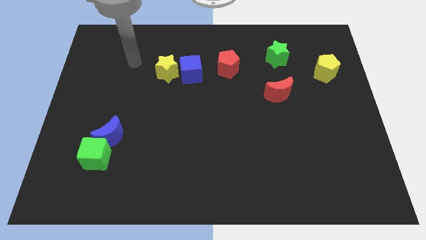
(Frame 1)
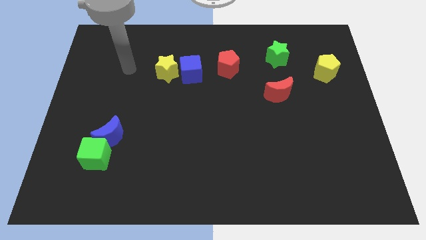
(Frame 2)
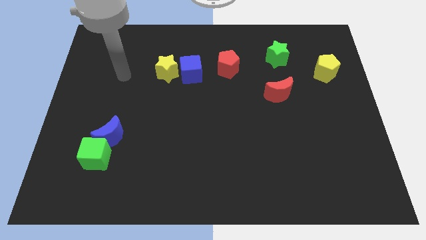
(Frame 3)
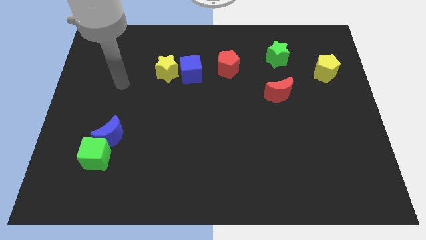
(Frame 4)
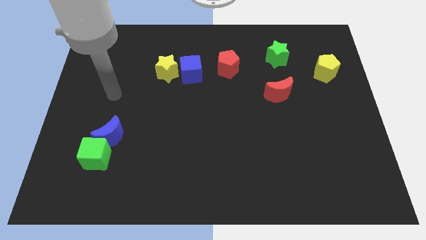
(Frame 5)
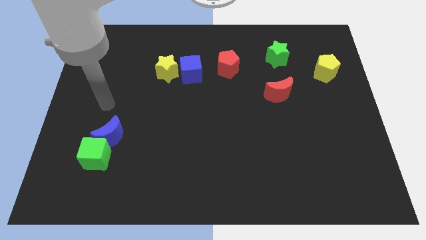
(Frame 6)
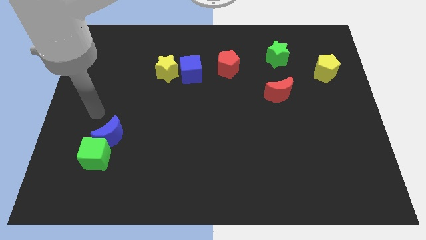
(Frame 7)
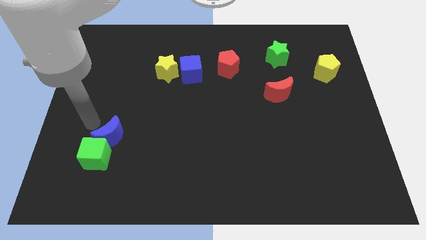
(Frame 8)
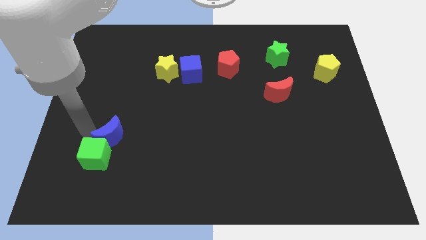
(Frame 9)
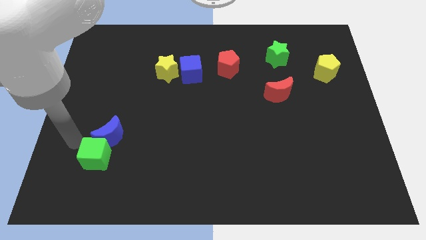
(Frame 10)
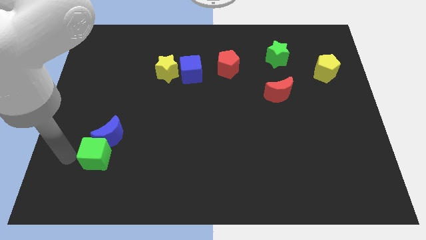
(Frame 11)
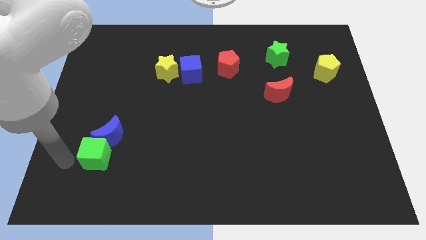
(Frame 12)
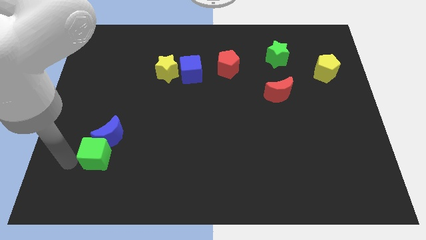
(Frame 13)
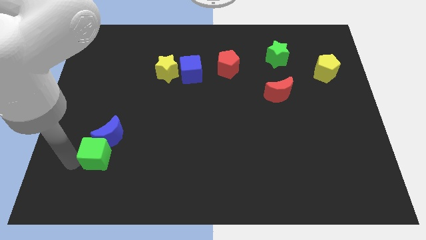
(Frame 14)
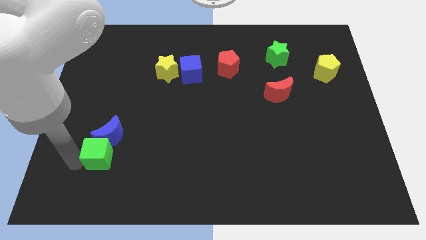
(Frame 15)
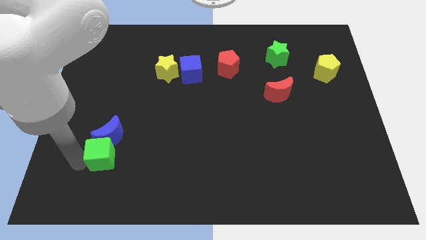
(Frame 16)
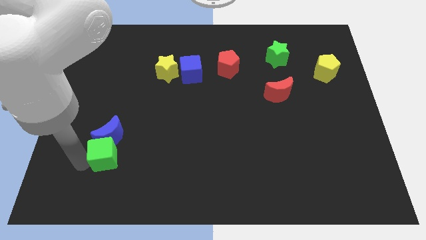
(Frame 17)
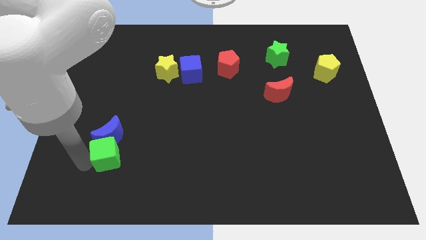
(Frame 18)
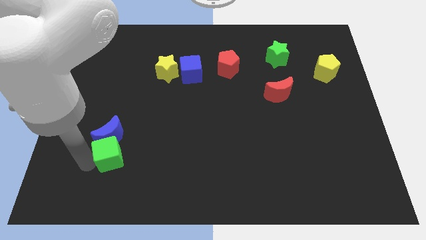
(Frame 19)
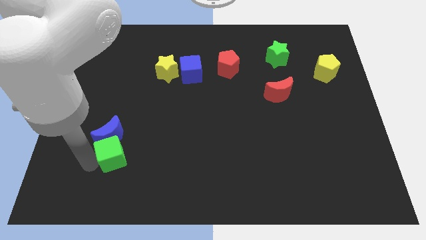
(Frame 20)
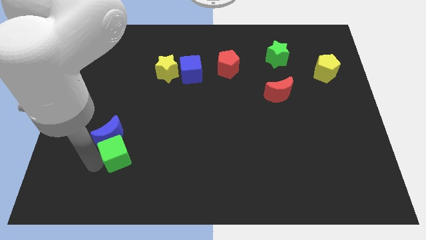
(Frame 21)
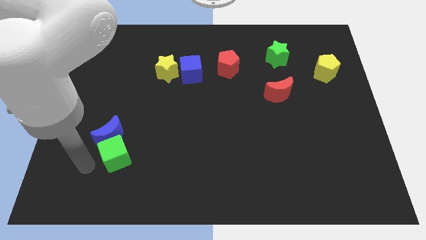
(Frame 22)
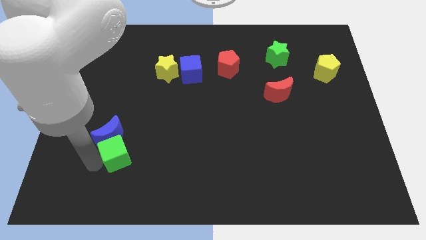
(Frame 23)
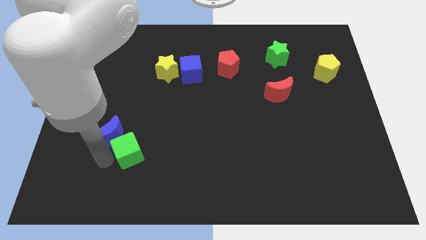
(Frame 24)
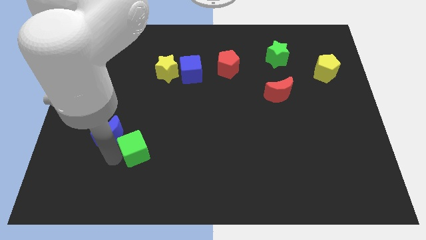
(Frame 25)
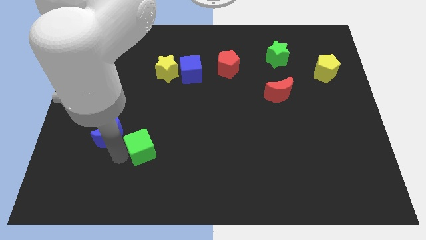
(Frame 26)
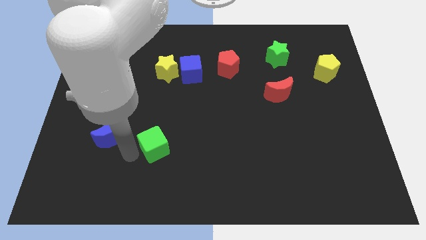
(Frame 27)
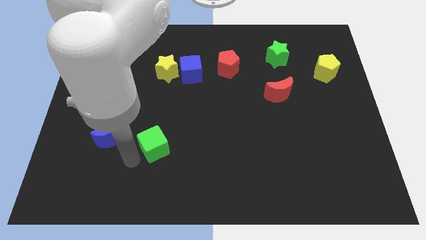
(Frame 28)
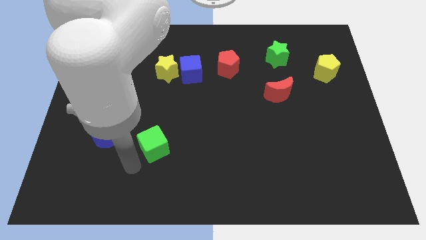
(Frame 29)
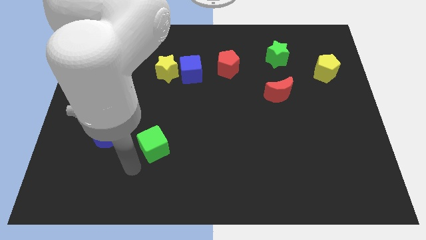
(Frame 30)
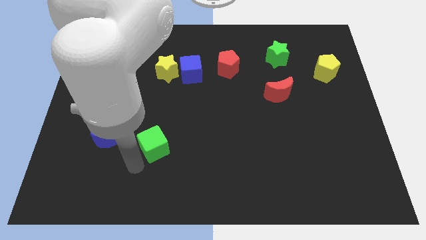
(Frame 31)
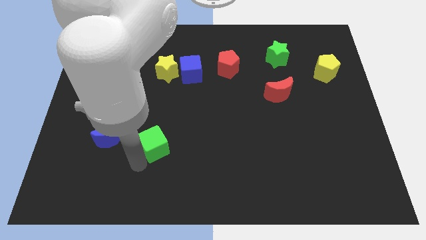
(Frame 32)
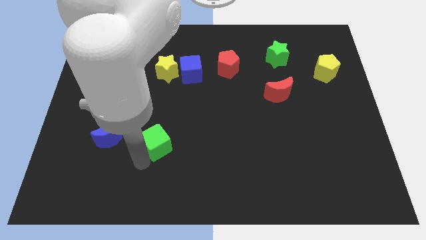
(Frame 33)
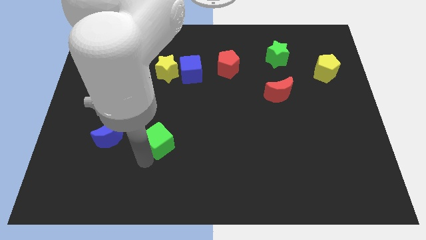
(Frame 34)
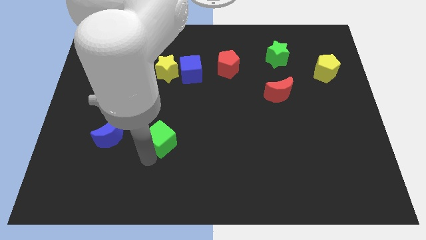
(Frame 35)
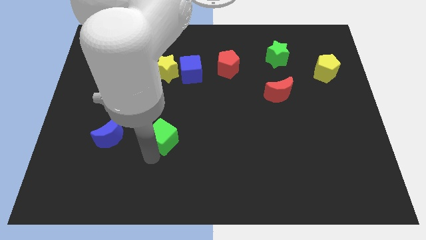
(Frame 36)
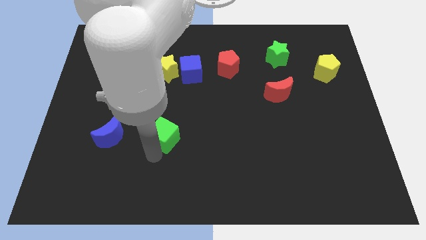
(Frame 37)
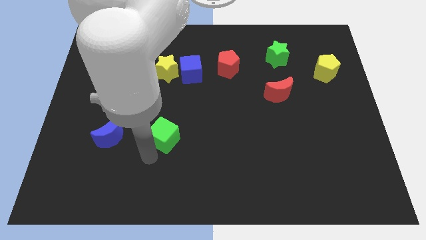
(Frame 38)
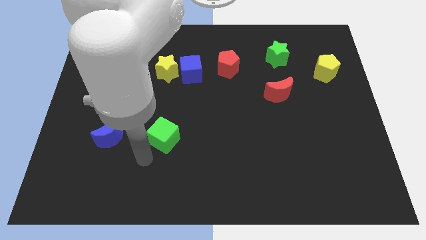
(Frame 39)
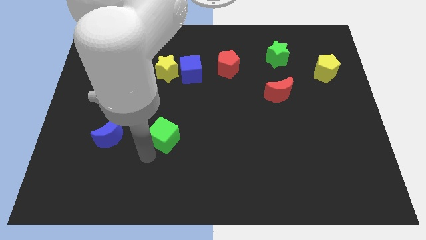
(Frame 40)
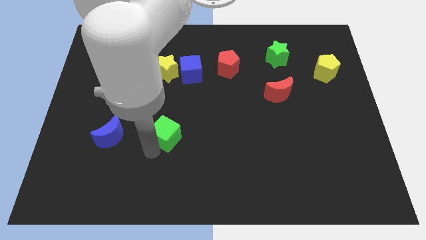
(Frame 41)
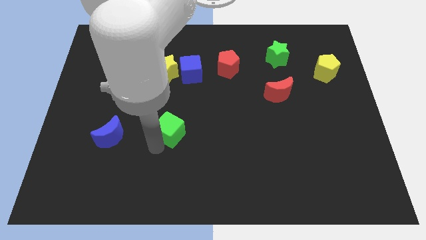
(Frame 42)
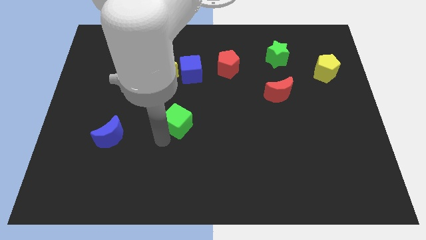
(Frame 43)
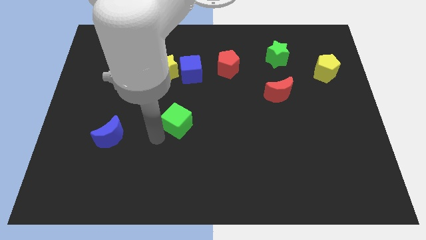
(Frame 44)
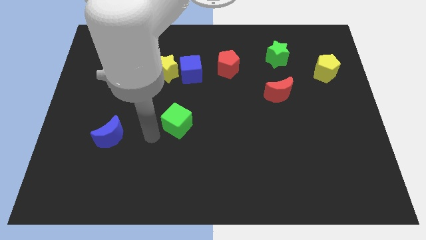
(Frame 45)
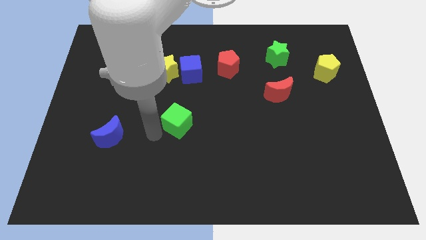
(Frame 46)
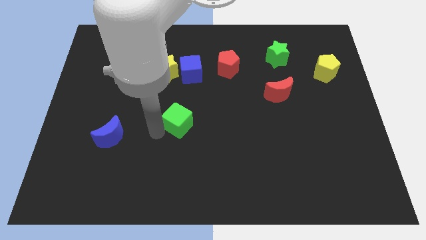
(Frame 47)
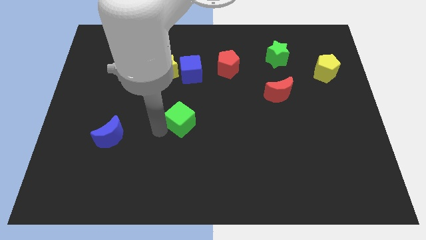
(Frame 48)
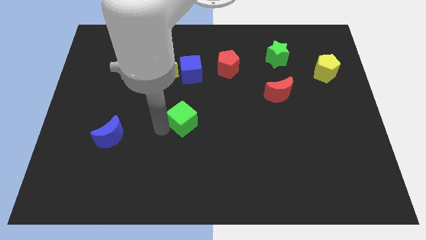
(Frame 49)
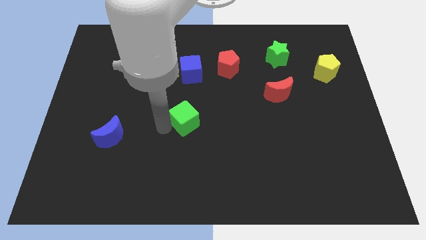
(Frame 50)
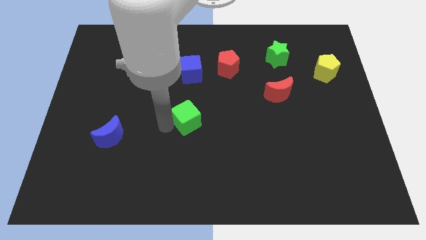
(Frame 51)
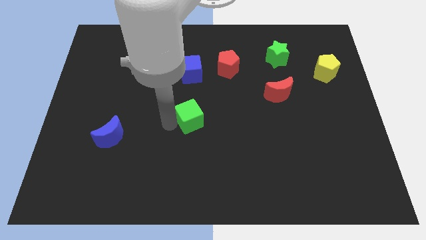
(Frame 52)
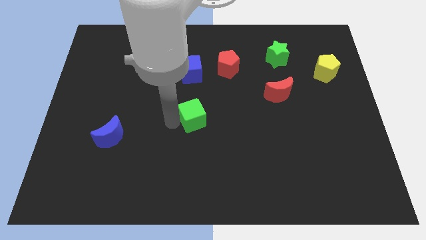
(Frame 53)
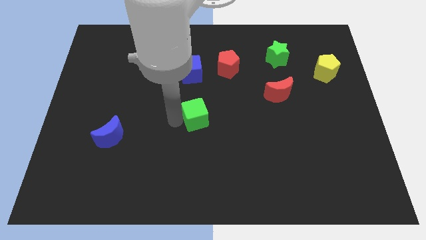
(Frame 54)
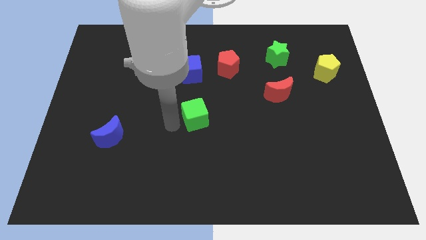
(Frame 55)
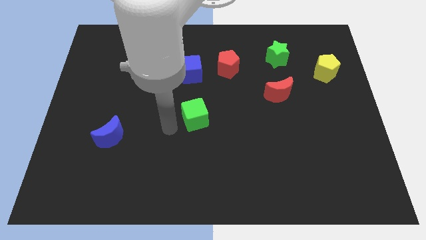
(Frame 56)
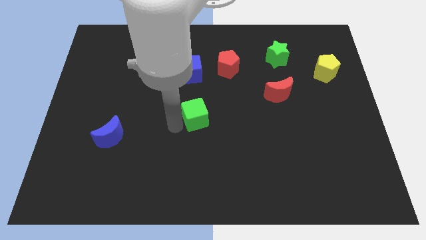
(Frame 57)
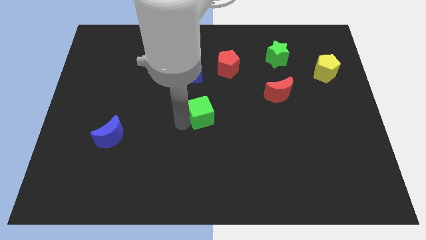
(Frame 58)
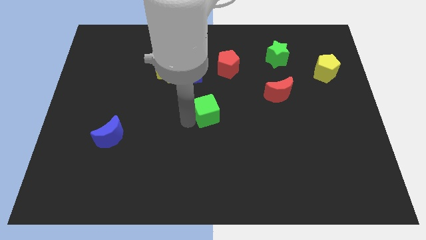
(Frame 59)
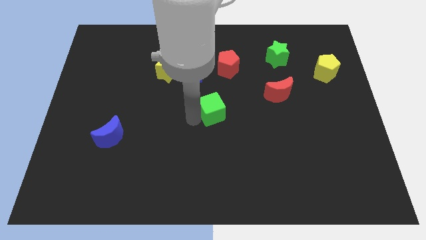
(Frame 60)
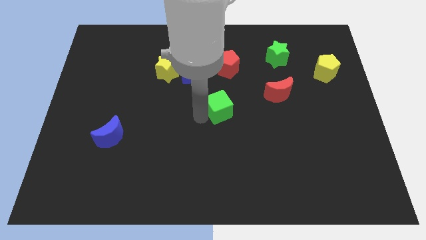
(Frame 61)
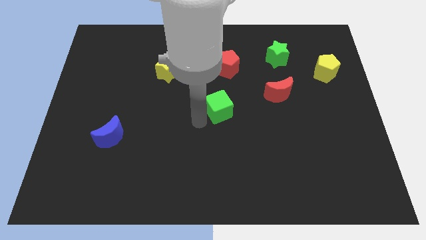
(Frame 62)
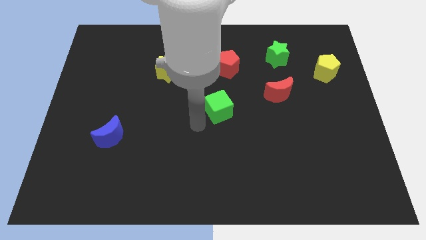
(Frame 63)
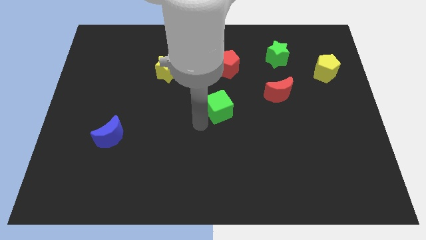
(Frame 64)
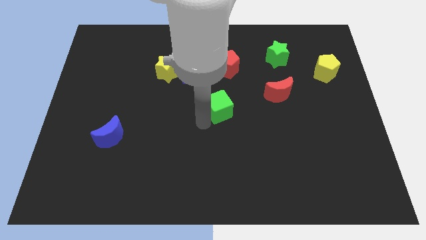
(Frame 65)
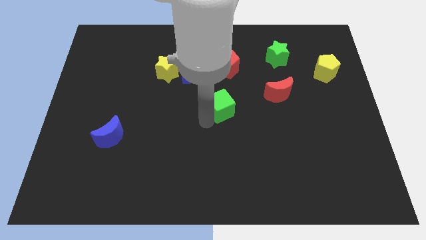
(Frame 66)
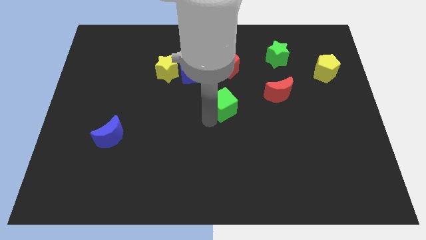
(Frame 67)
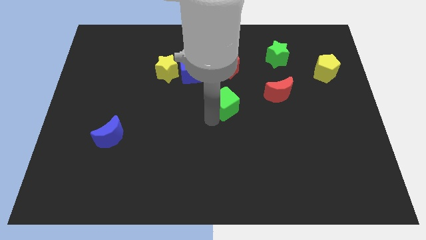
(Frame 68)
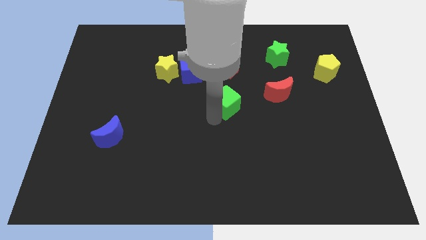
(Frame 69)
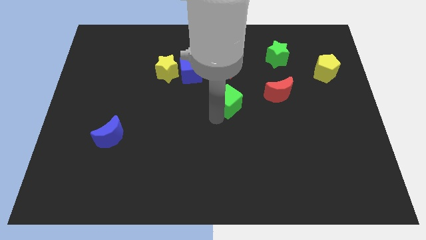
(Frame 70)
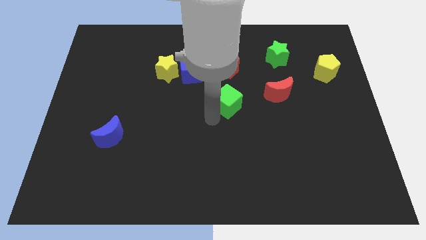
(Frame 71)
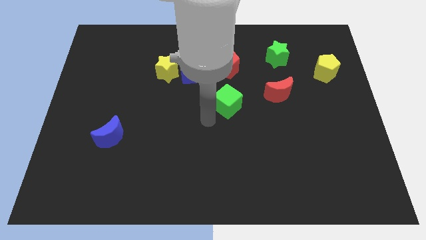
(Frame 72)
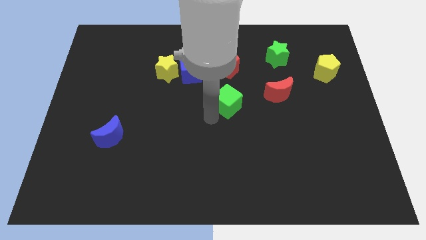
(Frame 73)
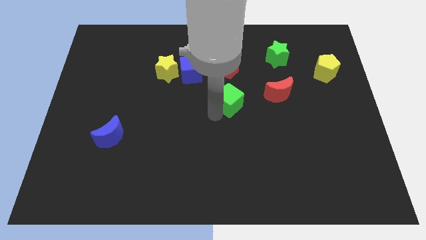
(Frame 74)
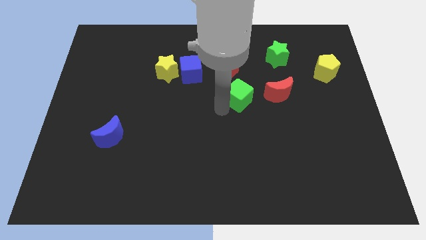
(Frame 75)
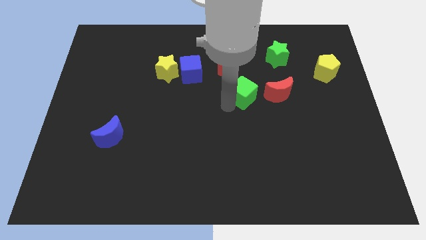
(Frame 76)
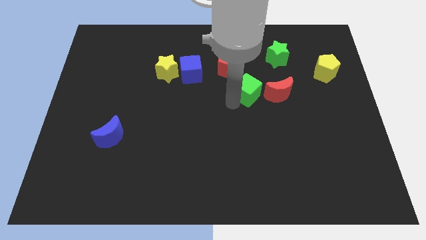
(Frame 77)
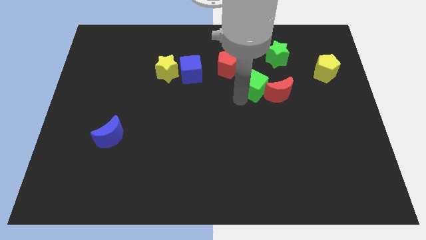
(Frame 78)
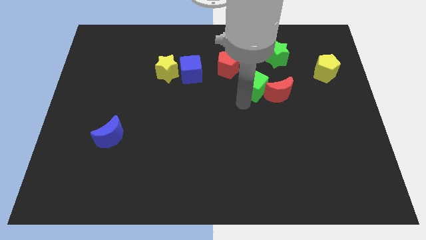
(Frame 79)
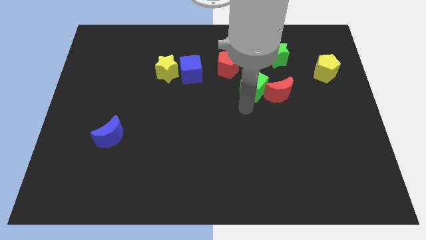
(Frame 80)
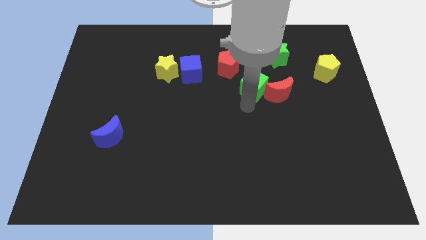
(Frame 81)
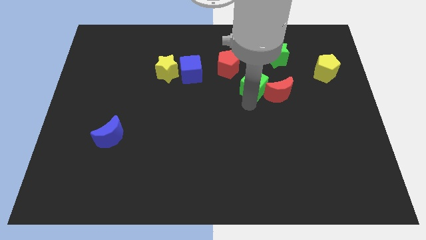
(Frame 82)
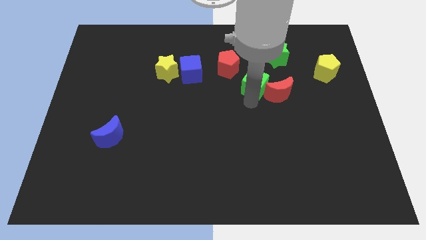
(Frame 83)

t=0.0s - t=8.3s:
put the green cube to the bottom left of the green star
